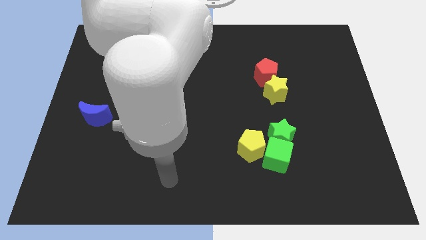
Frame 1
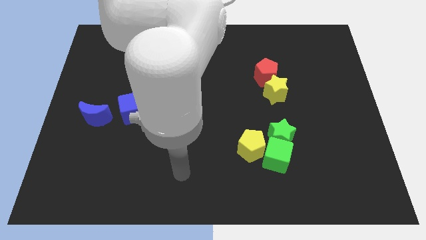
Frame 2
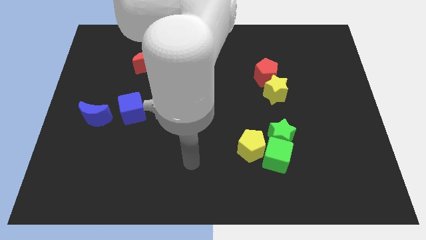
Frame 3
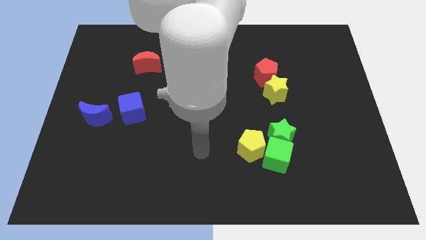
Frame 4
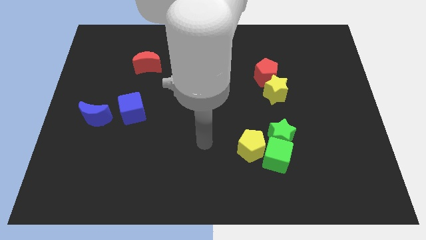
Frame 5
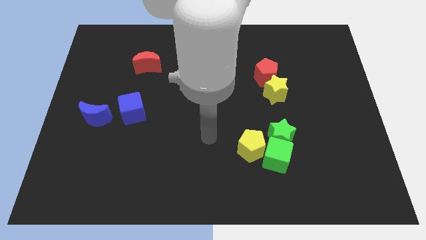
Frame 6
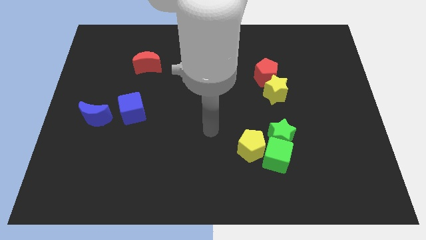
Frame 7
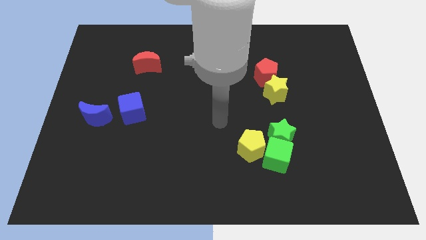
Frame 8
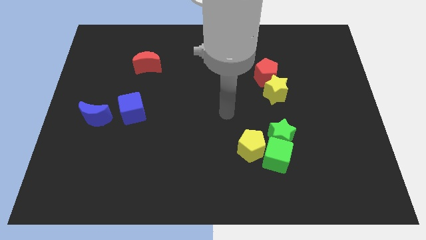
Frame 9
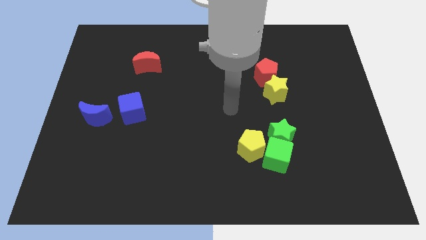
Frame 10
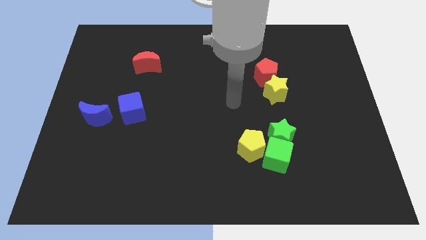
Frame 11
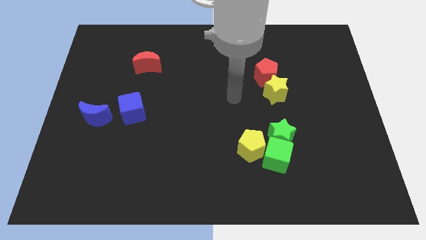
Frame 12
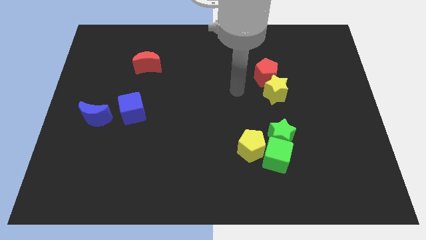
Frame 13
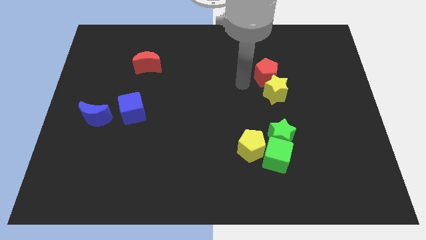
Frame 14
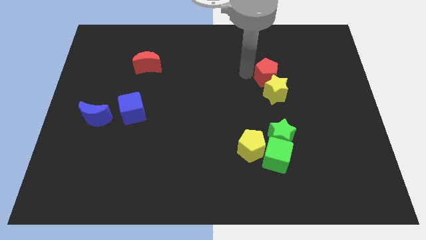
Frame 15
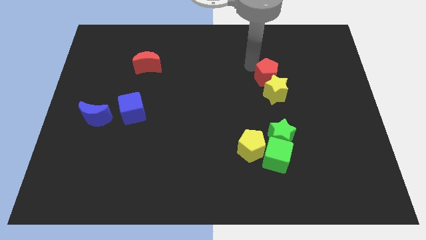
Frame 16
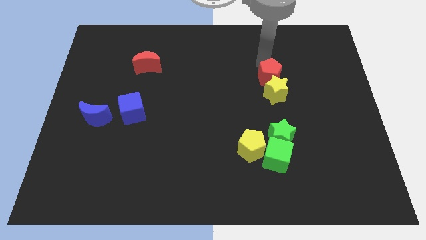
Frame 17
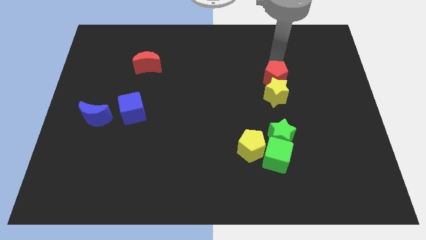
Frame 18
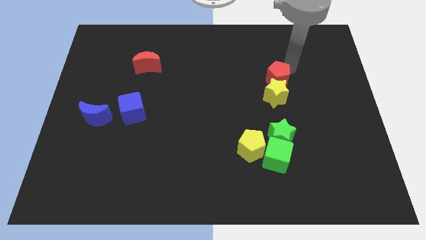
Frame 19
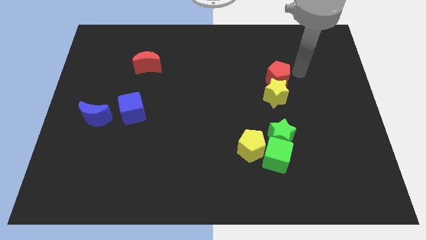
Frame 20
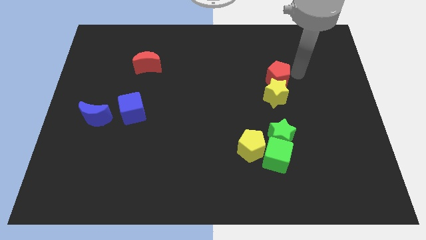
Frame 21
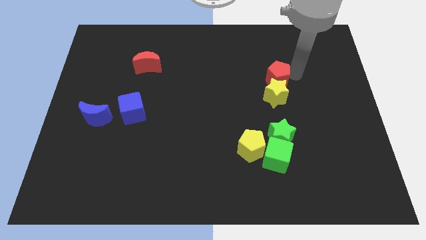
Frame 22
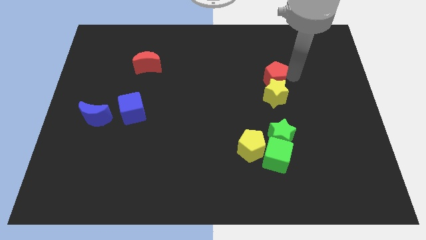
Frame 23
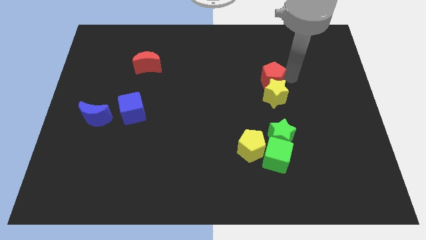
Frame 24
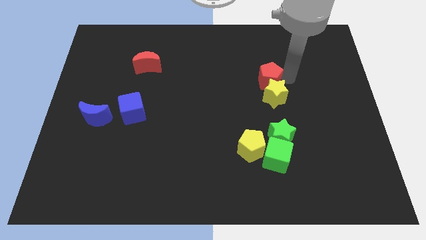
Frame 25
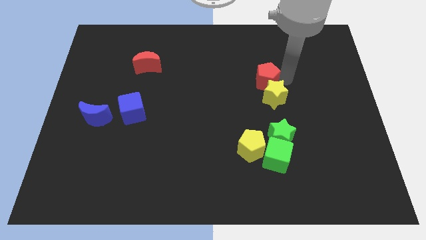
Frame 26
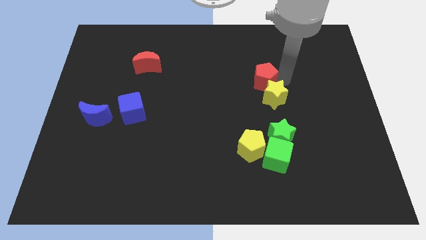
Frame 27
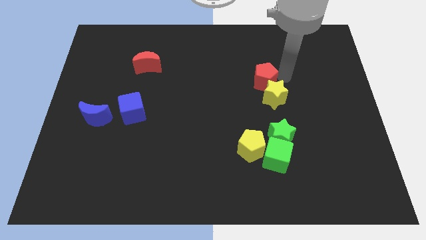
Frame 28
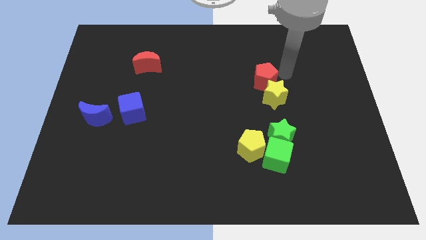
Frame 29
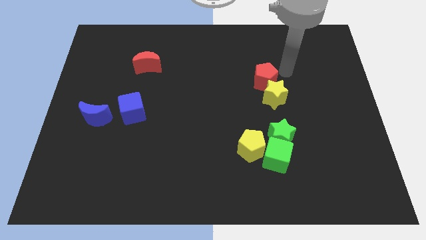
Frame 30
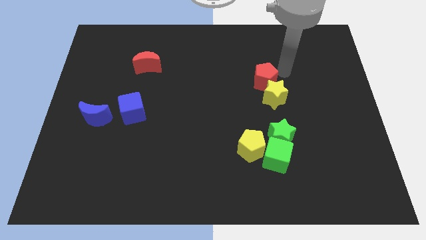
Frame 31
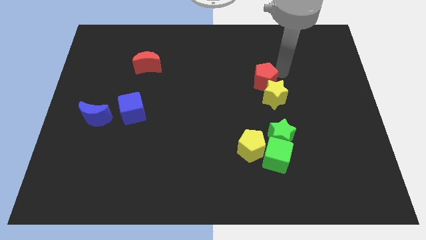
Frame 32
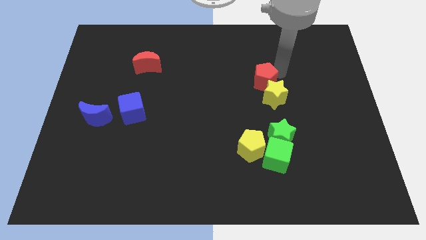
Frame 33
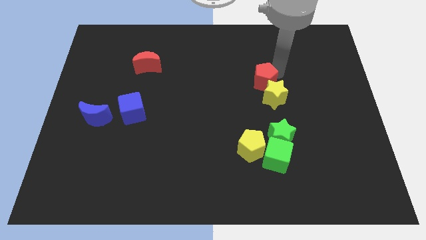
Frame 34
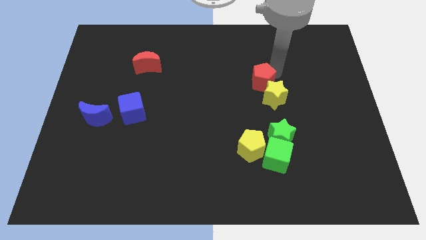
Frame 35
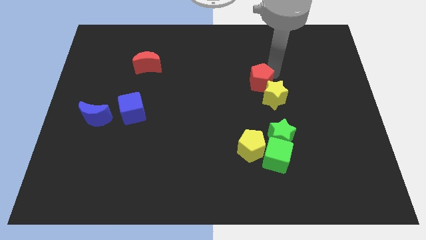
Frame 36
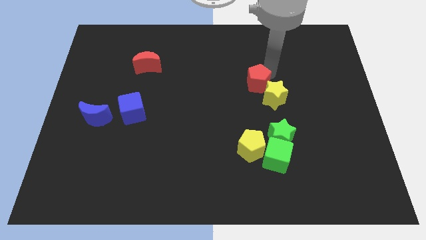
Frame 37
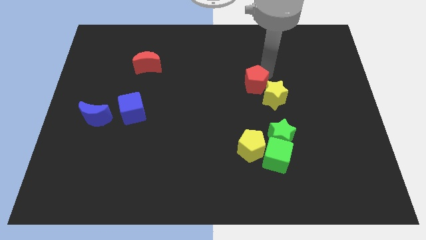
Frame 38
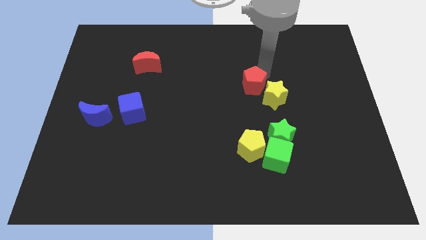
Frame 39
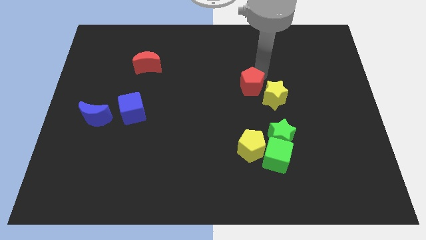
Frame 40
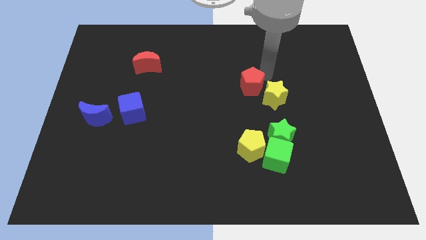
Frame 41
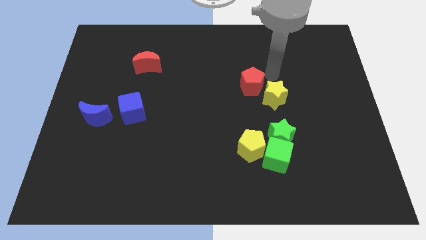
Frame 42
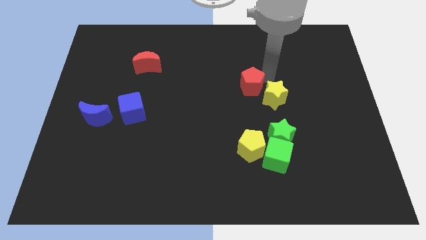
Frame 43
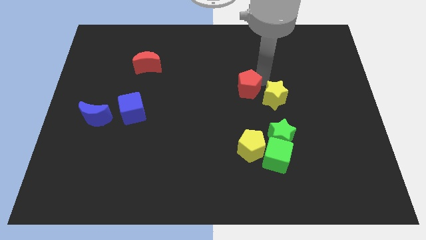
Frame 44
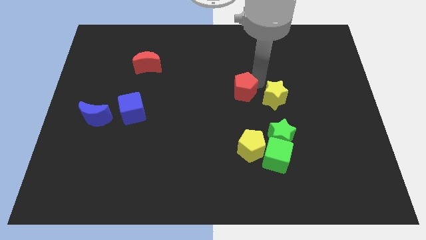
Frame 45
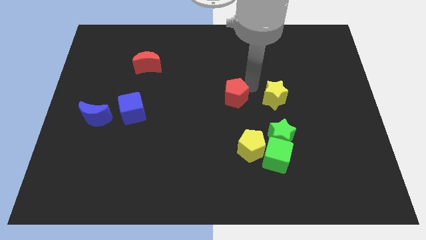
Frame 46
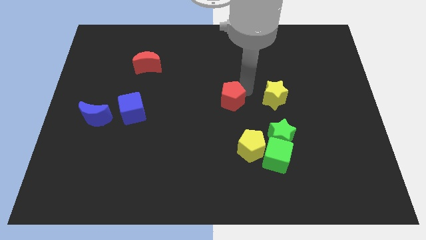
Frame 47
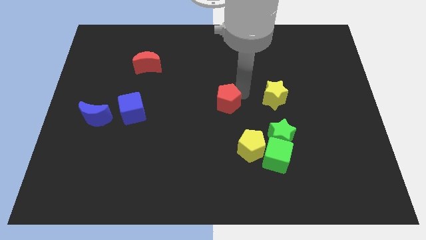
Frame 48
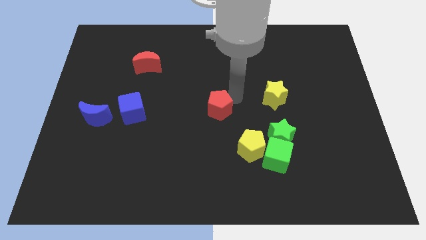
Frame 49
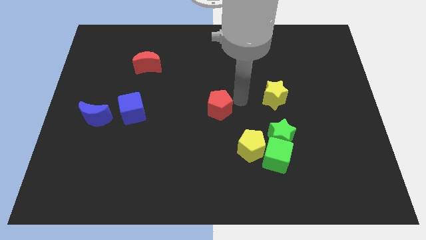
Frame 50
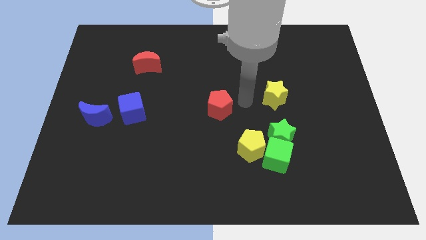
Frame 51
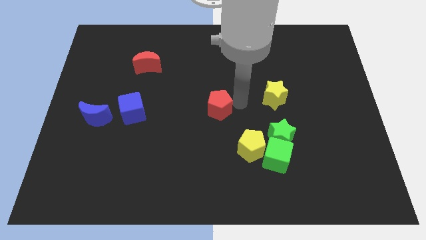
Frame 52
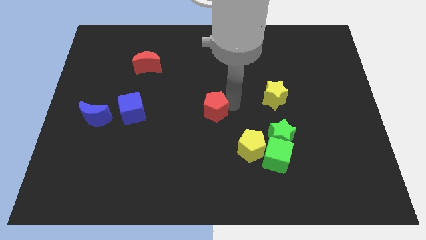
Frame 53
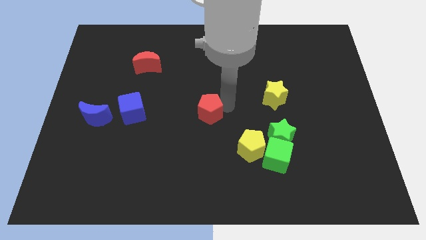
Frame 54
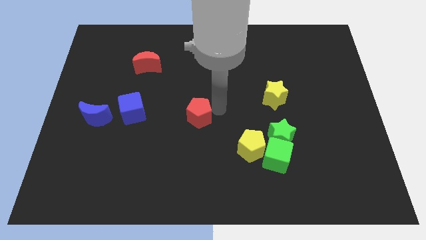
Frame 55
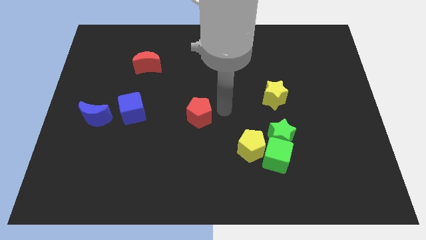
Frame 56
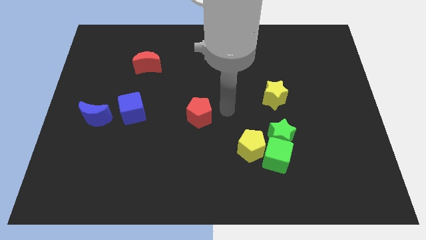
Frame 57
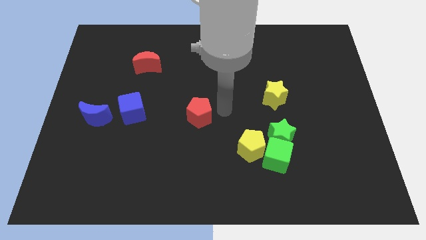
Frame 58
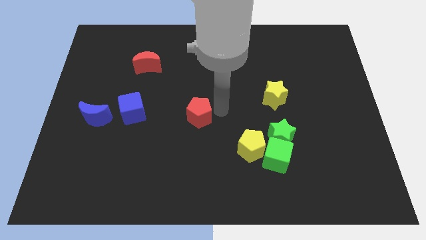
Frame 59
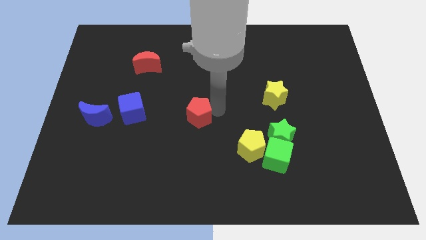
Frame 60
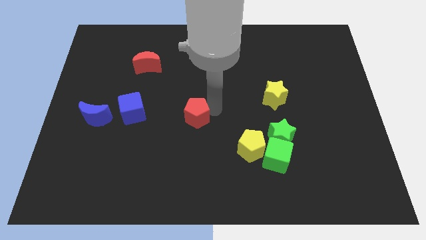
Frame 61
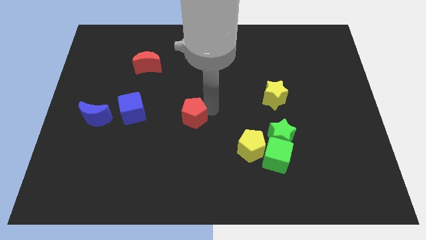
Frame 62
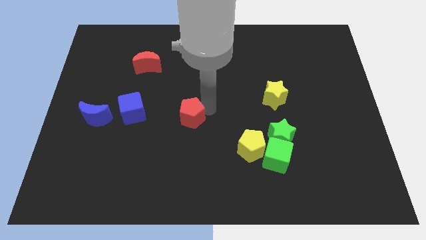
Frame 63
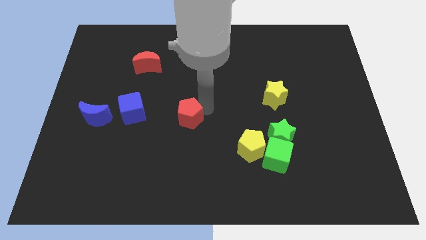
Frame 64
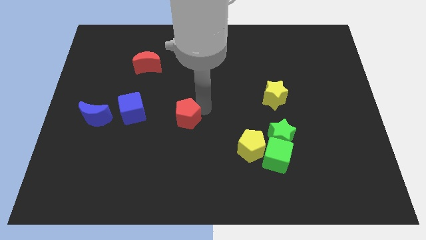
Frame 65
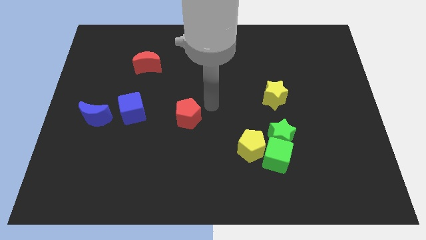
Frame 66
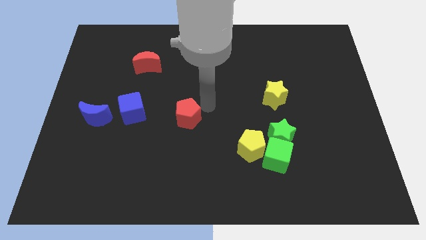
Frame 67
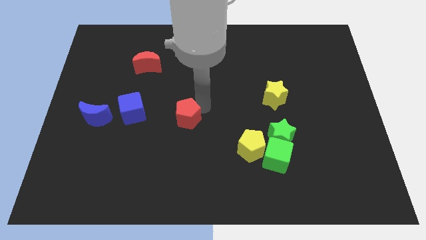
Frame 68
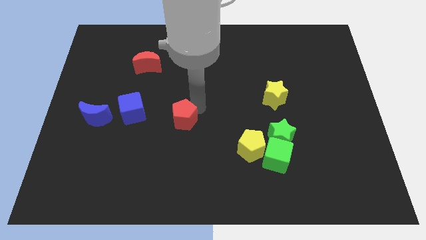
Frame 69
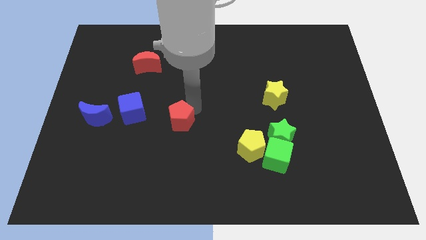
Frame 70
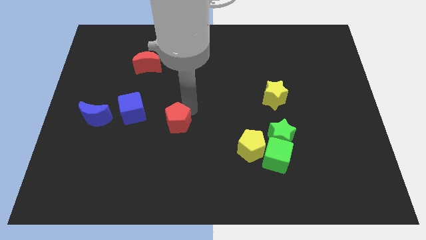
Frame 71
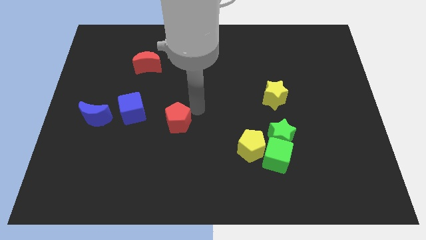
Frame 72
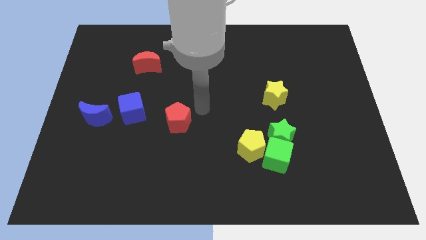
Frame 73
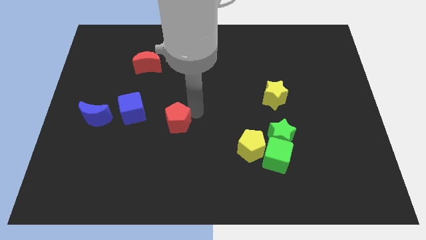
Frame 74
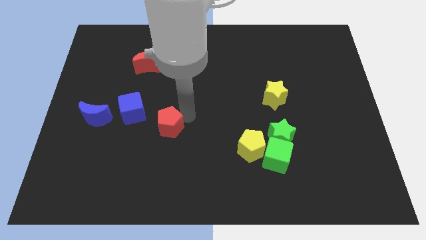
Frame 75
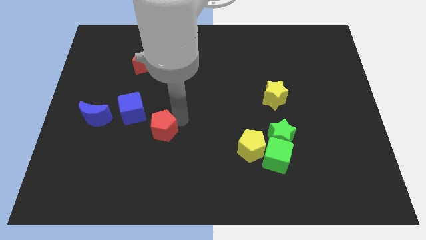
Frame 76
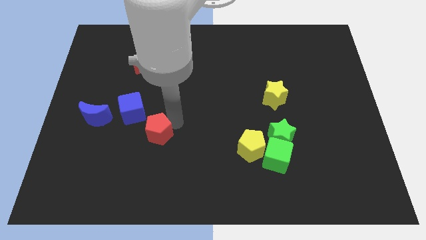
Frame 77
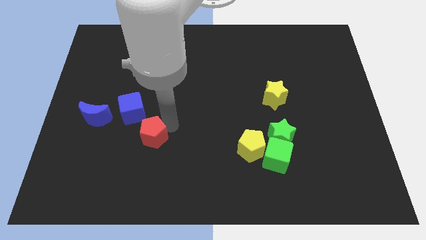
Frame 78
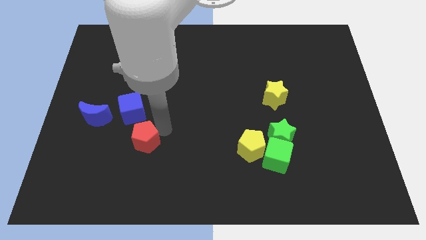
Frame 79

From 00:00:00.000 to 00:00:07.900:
move the red pentagon to the bottom side of the blue cube
